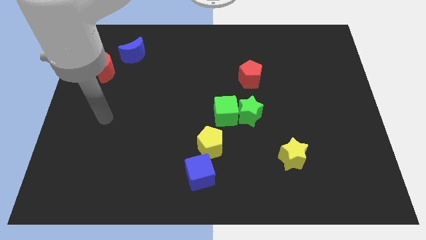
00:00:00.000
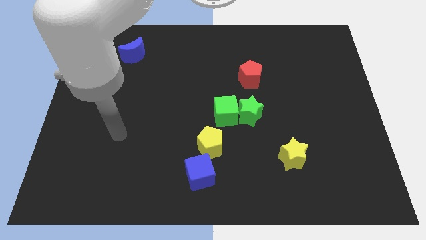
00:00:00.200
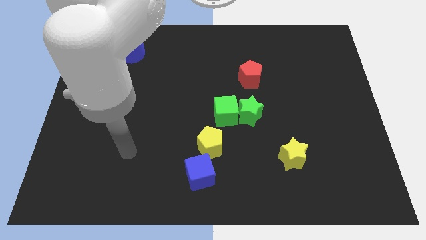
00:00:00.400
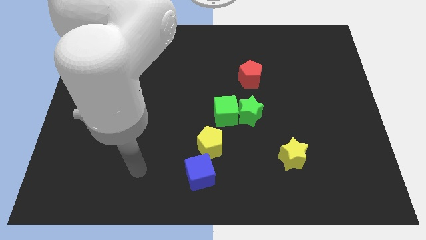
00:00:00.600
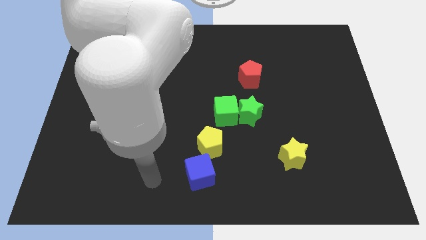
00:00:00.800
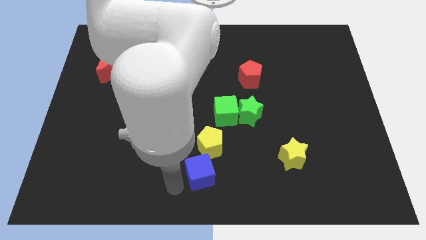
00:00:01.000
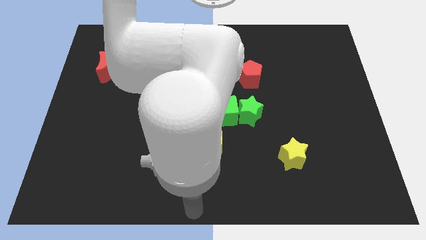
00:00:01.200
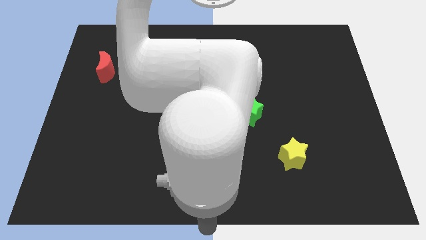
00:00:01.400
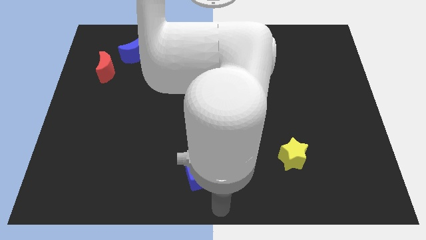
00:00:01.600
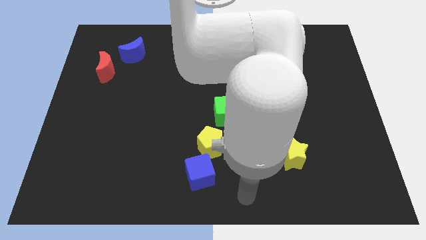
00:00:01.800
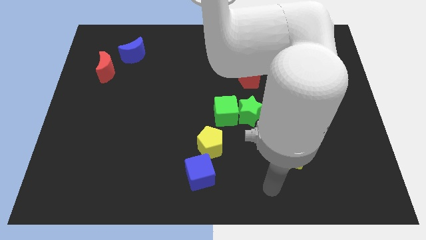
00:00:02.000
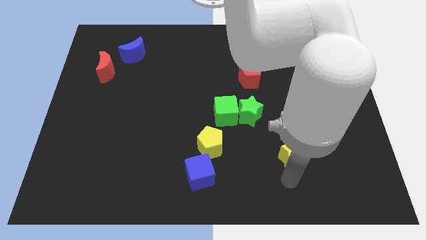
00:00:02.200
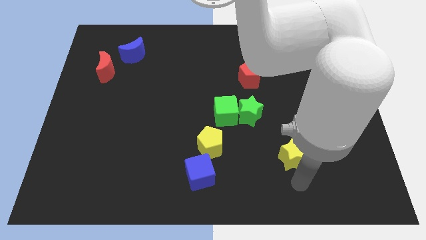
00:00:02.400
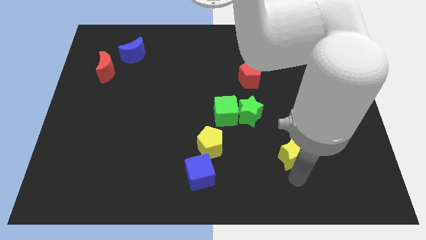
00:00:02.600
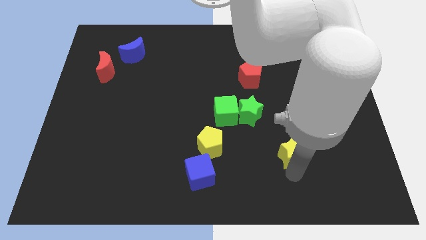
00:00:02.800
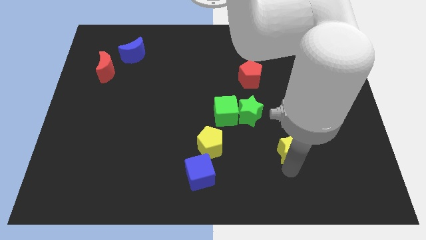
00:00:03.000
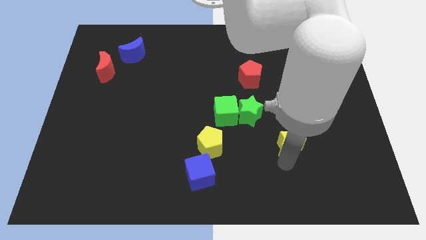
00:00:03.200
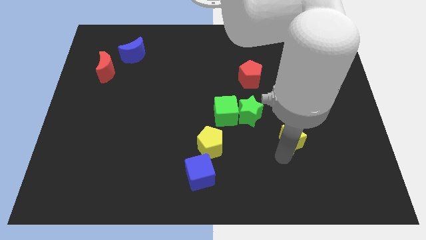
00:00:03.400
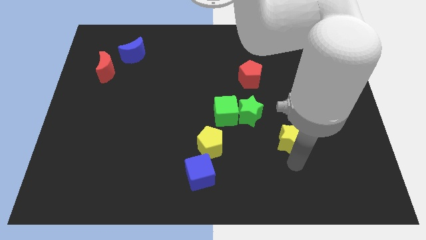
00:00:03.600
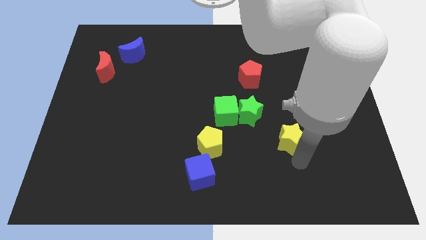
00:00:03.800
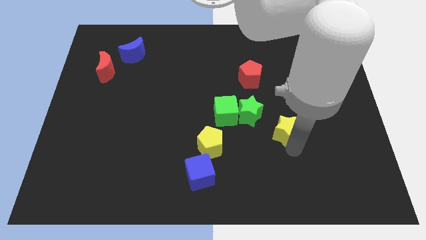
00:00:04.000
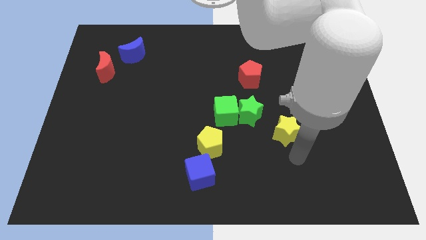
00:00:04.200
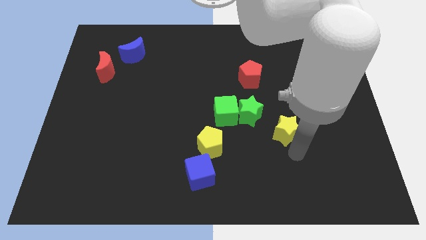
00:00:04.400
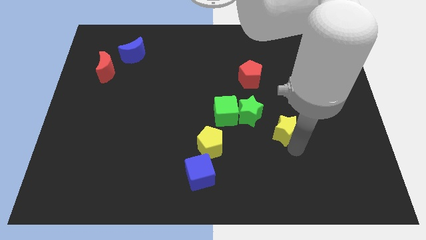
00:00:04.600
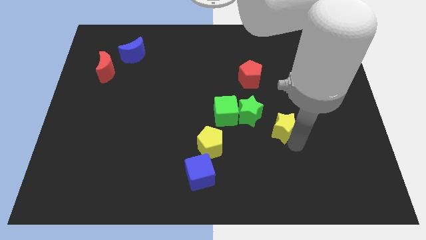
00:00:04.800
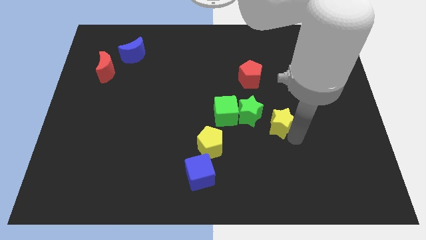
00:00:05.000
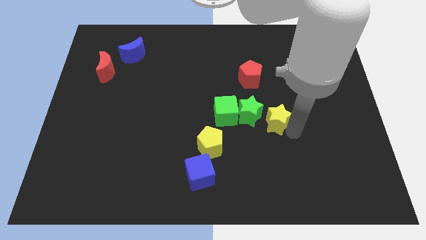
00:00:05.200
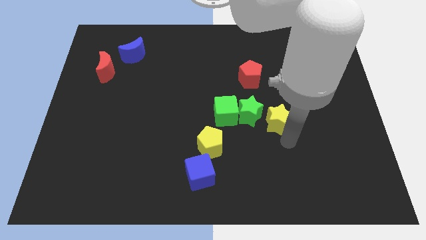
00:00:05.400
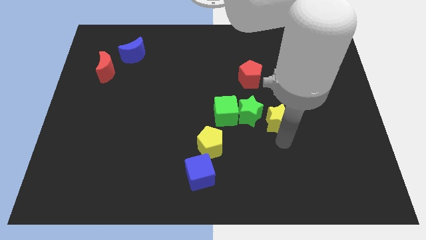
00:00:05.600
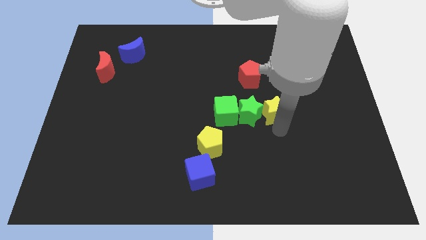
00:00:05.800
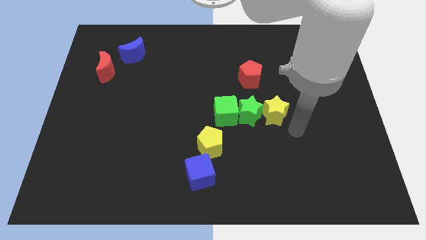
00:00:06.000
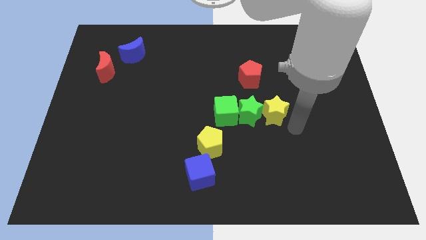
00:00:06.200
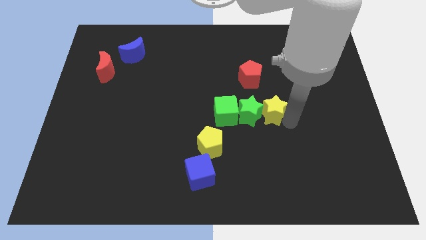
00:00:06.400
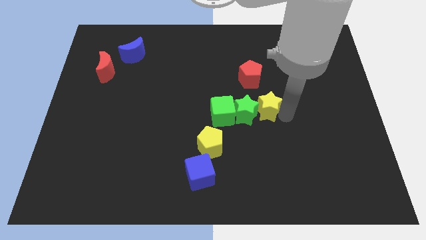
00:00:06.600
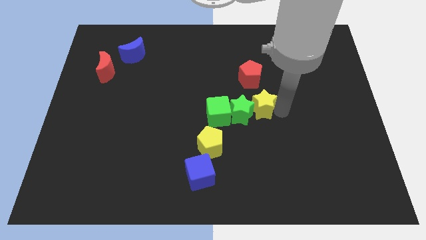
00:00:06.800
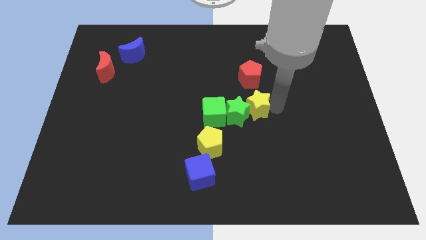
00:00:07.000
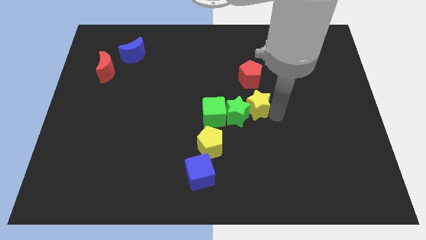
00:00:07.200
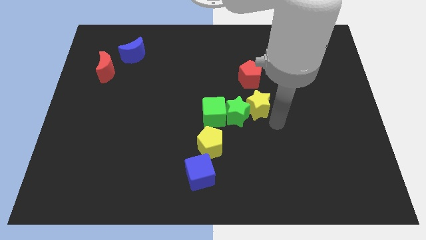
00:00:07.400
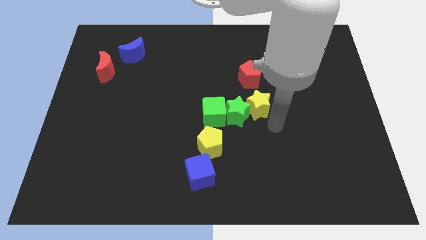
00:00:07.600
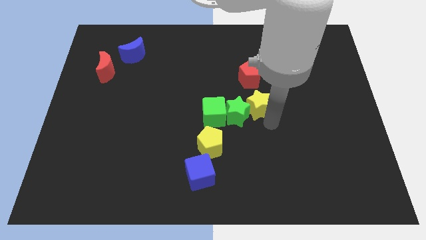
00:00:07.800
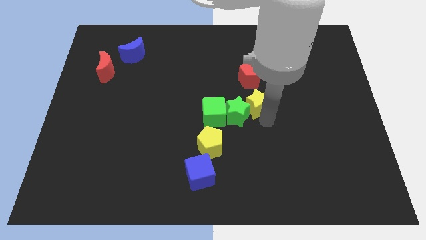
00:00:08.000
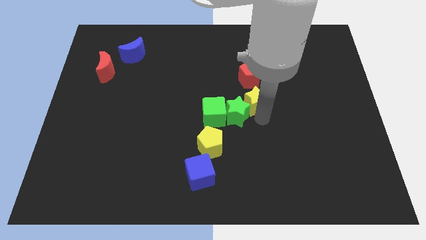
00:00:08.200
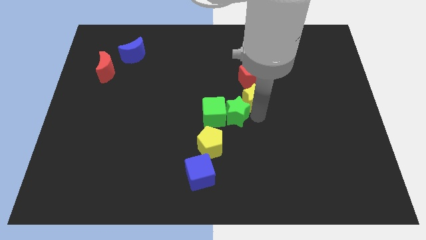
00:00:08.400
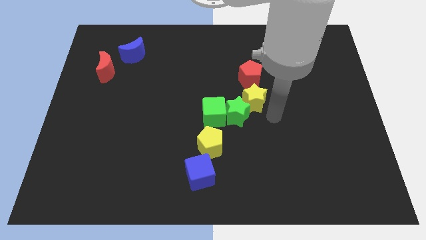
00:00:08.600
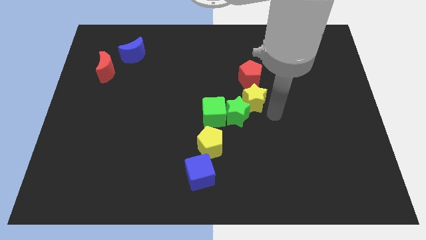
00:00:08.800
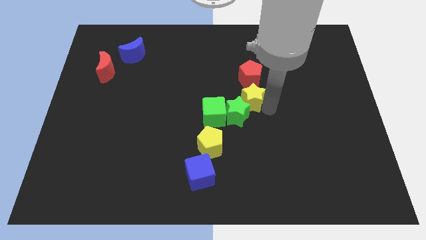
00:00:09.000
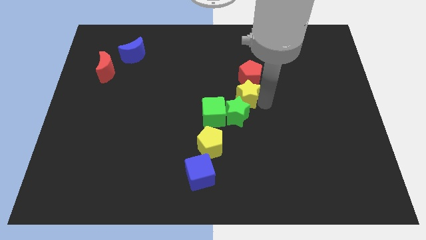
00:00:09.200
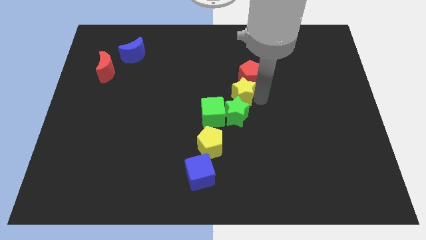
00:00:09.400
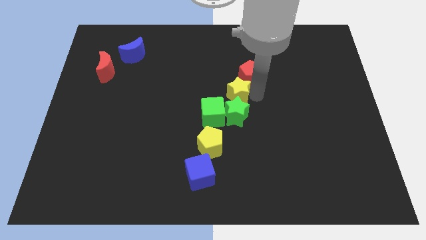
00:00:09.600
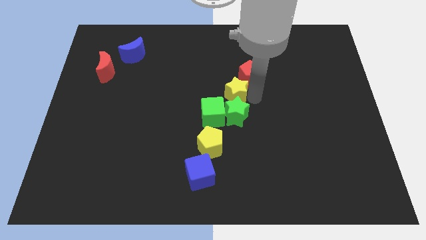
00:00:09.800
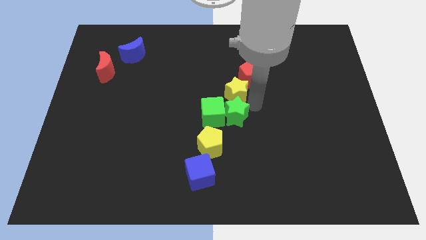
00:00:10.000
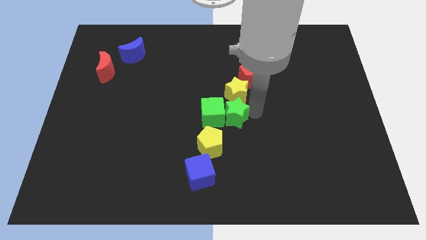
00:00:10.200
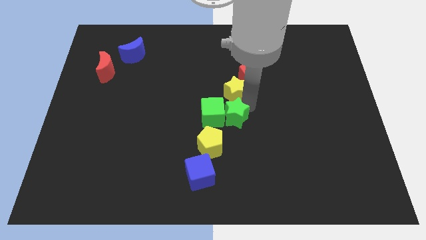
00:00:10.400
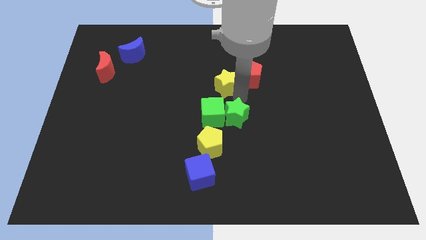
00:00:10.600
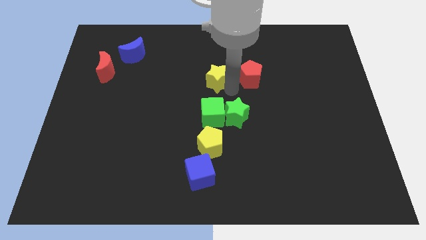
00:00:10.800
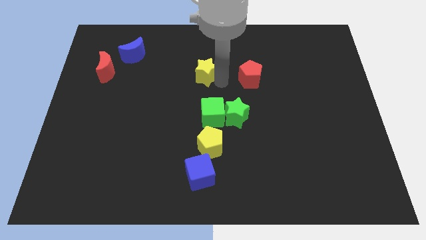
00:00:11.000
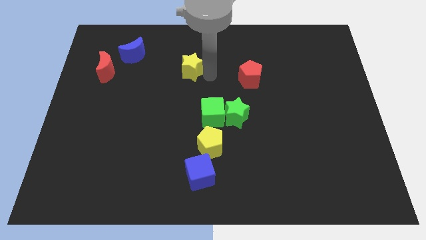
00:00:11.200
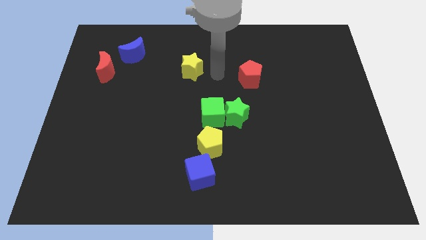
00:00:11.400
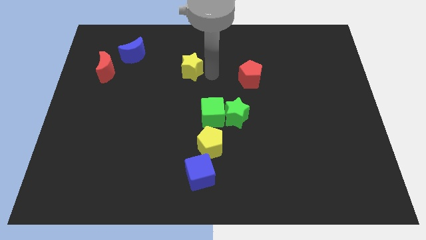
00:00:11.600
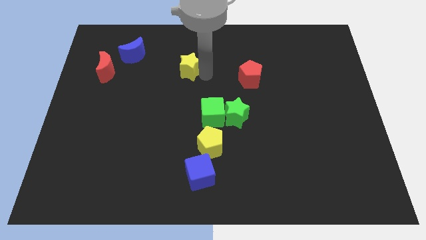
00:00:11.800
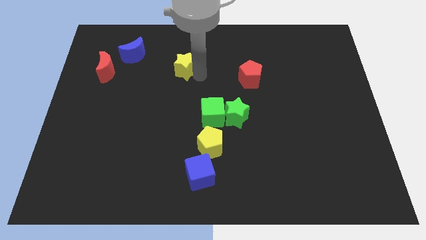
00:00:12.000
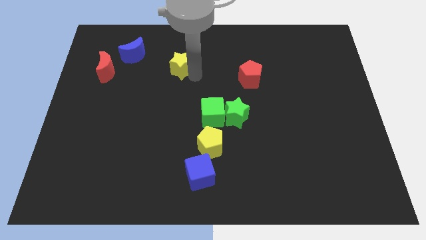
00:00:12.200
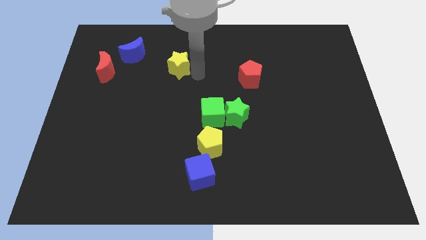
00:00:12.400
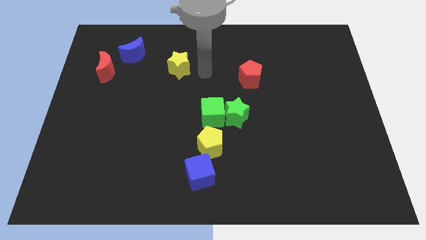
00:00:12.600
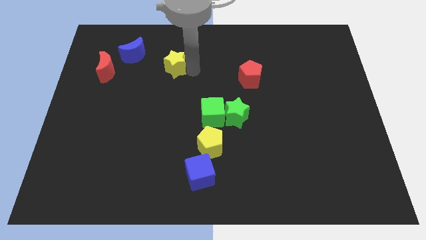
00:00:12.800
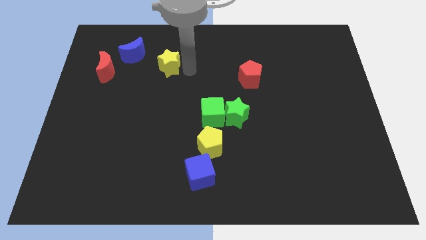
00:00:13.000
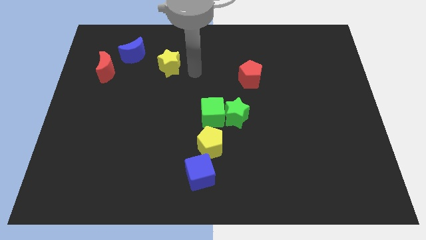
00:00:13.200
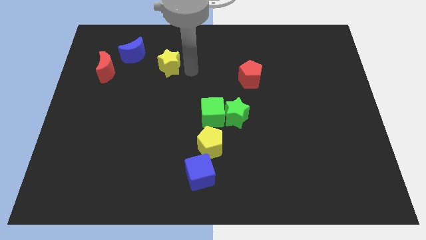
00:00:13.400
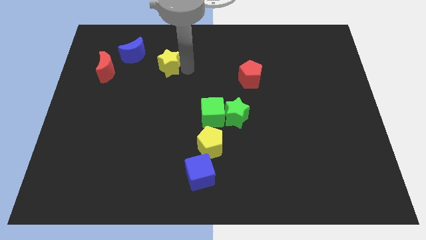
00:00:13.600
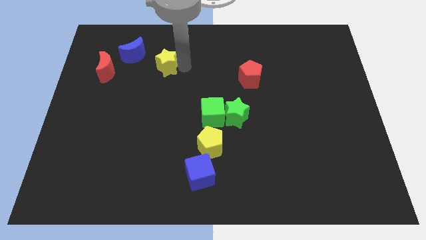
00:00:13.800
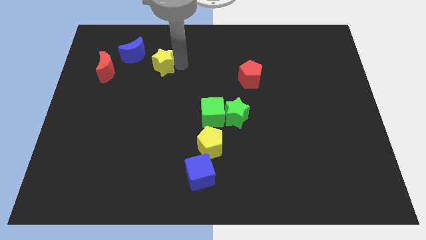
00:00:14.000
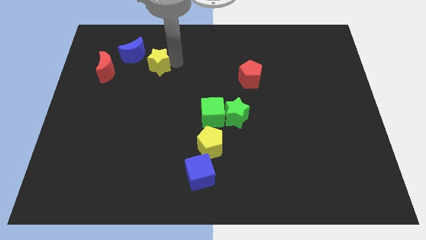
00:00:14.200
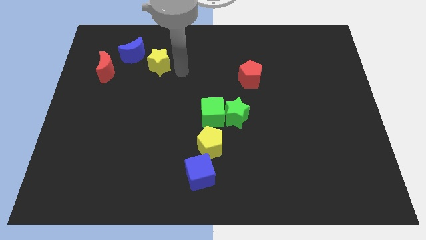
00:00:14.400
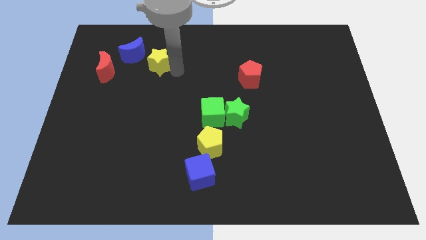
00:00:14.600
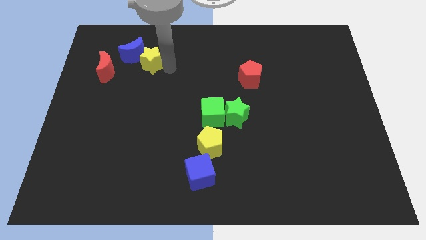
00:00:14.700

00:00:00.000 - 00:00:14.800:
push the yellow star next to the blue moon
